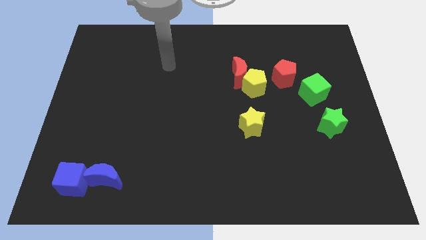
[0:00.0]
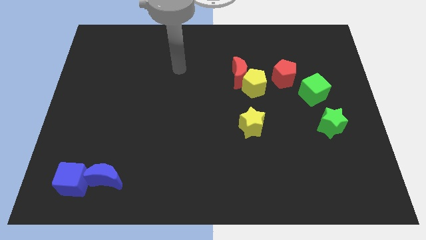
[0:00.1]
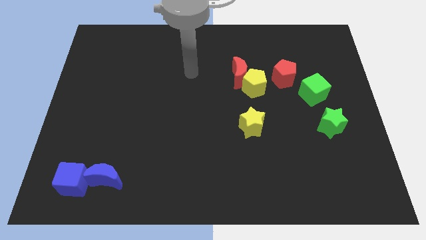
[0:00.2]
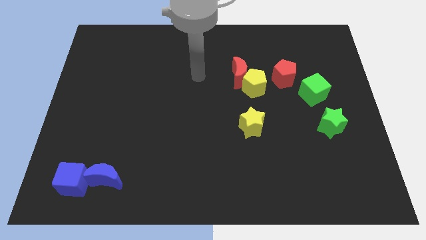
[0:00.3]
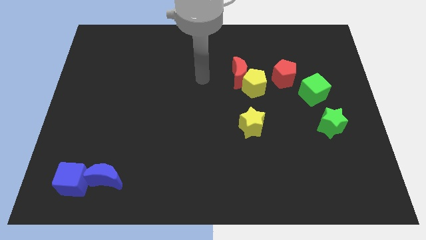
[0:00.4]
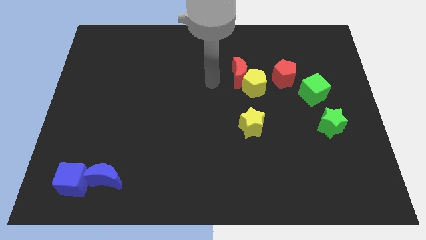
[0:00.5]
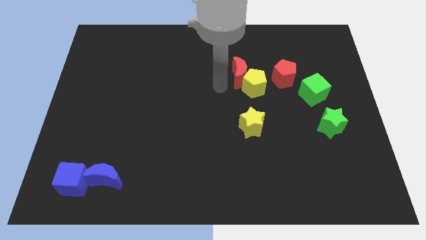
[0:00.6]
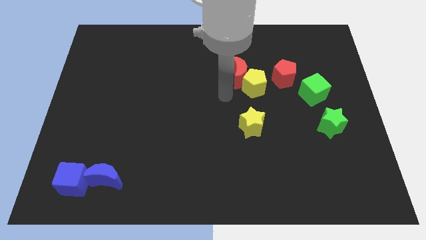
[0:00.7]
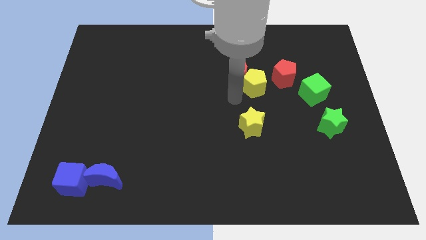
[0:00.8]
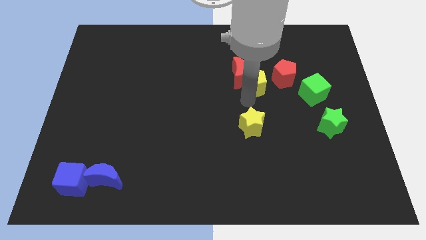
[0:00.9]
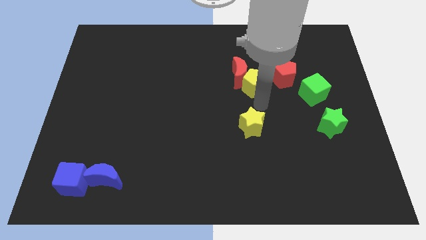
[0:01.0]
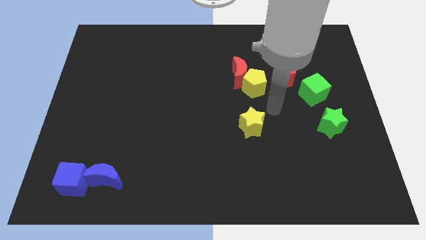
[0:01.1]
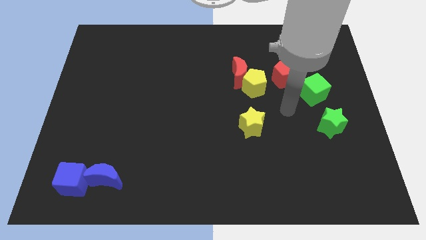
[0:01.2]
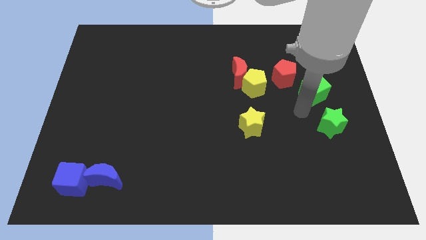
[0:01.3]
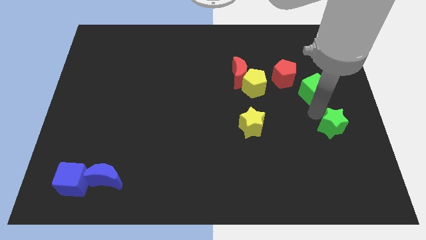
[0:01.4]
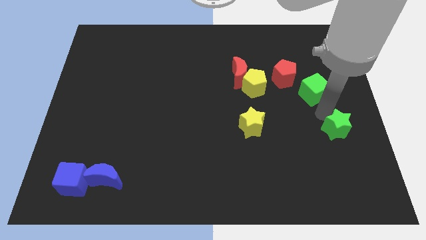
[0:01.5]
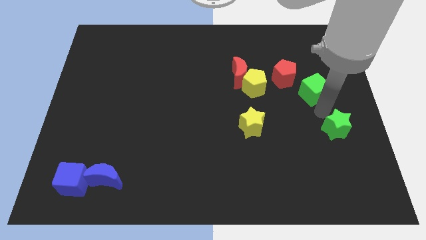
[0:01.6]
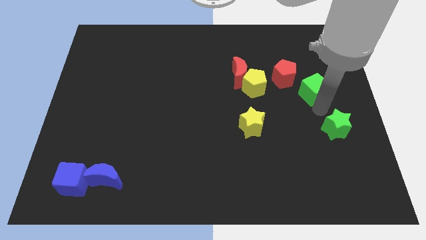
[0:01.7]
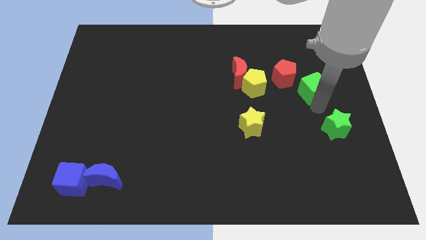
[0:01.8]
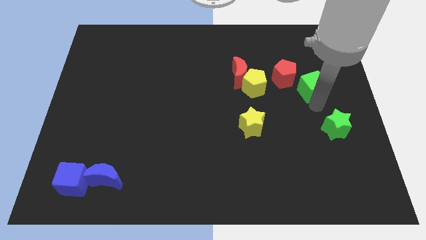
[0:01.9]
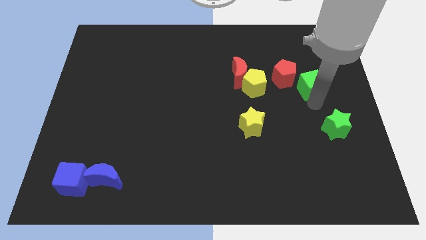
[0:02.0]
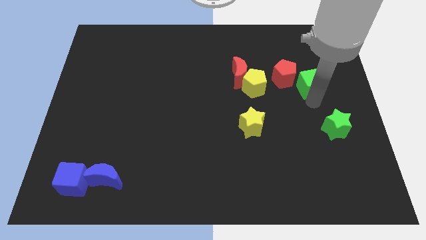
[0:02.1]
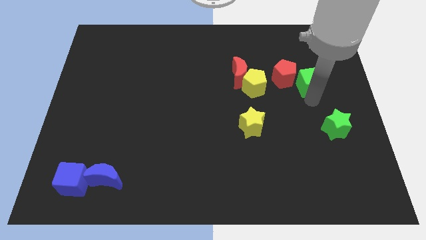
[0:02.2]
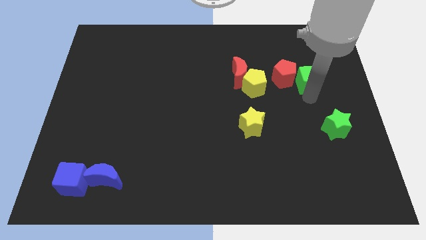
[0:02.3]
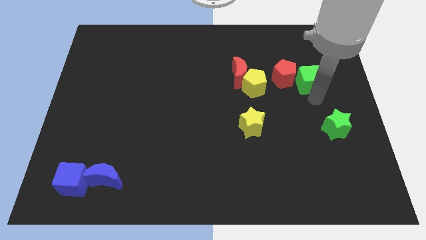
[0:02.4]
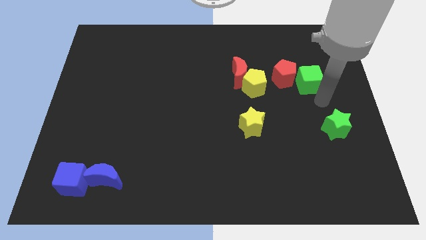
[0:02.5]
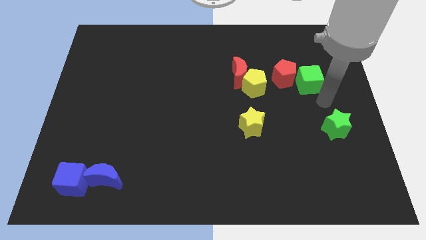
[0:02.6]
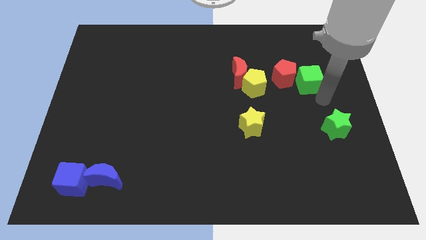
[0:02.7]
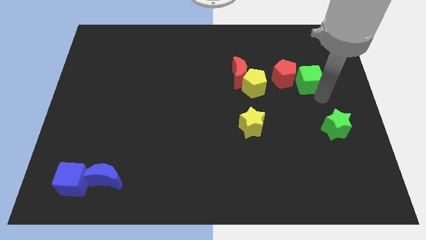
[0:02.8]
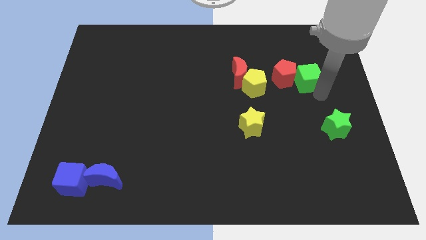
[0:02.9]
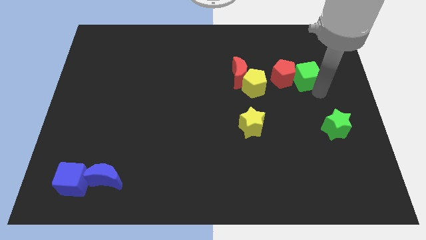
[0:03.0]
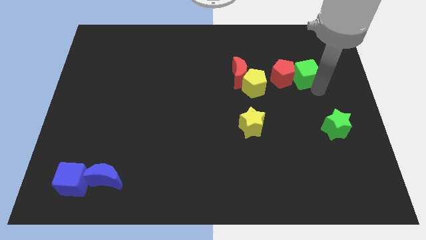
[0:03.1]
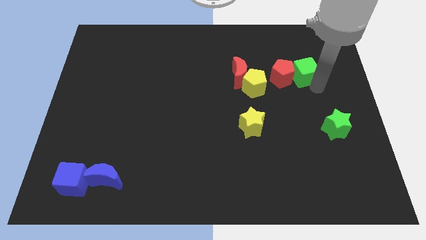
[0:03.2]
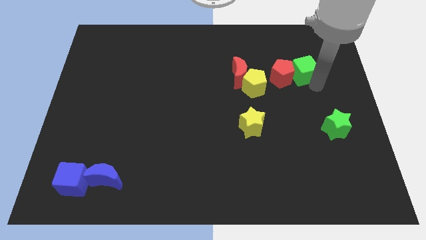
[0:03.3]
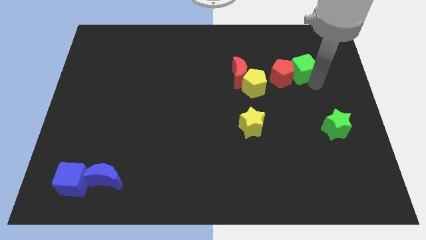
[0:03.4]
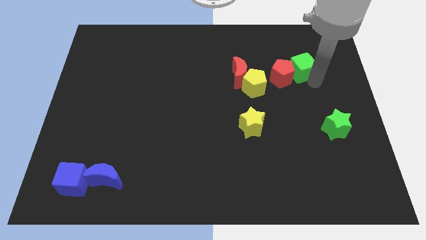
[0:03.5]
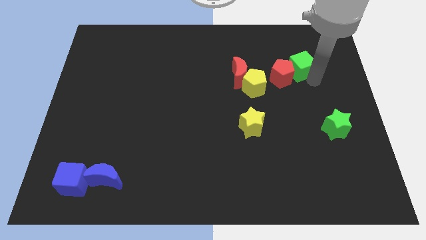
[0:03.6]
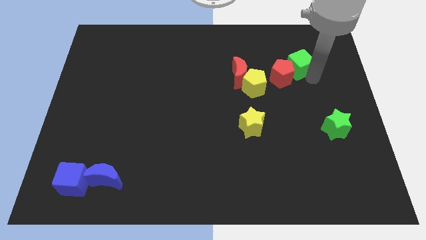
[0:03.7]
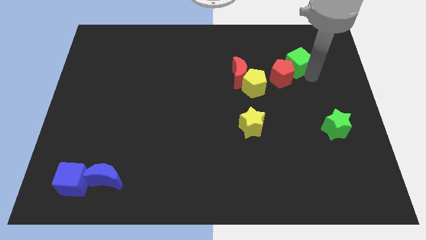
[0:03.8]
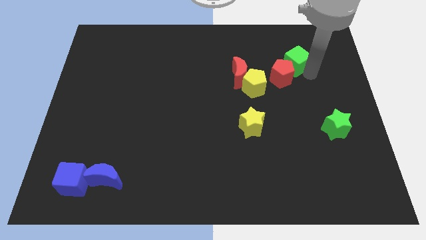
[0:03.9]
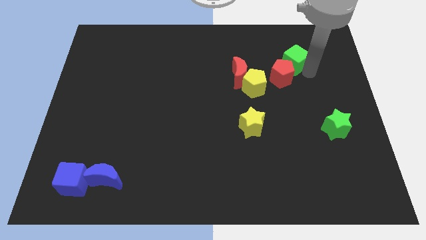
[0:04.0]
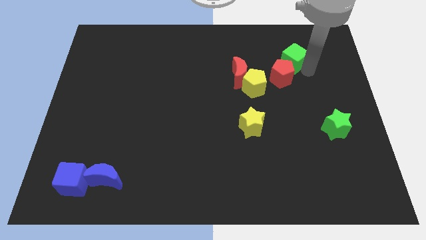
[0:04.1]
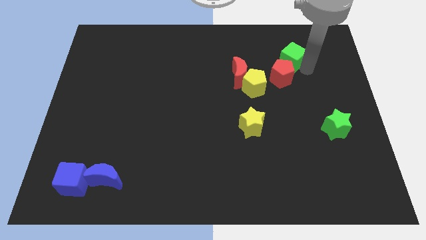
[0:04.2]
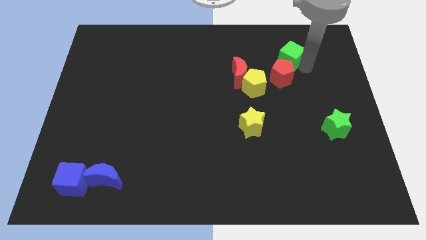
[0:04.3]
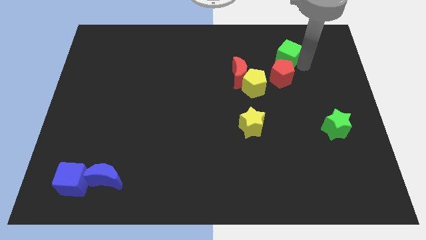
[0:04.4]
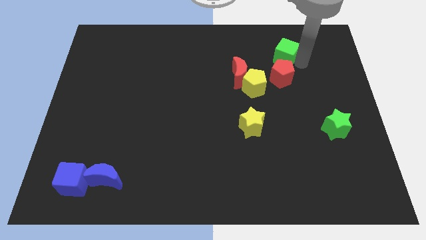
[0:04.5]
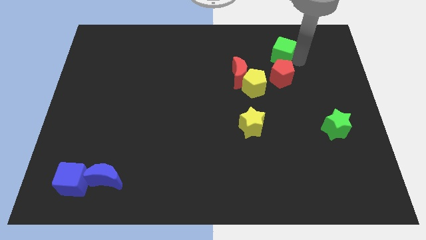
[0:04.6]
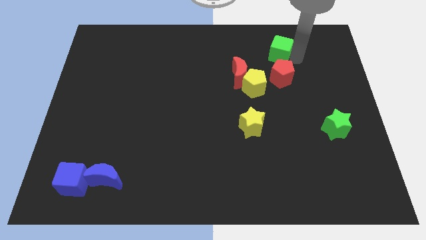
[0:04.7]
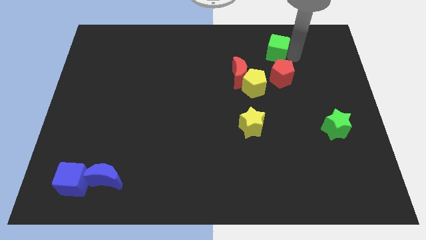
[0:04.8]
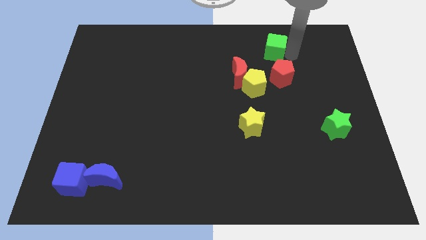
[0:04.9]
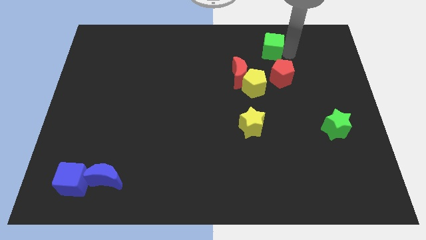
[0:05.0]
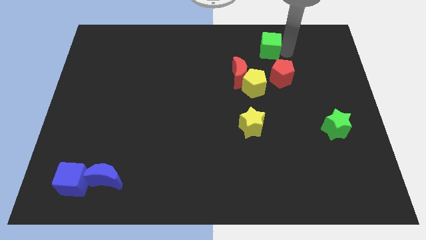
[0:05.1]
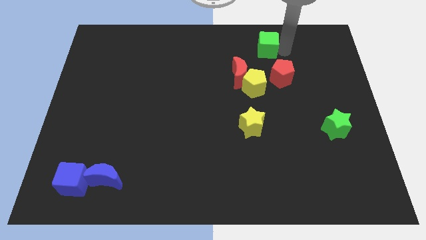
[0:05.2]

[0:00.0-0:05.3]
put the green cube above the yellow pentagon

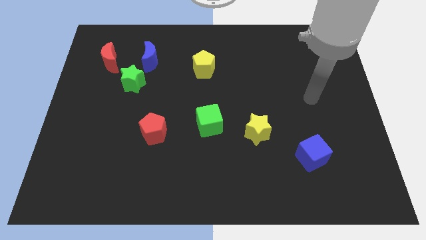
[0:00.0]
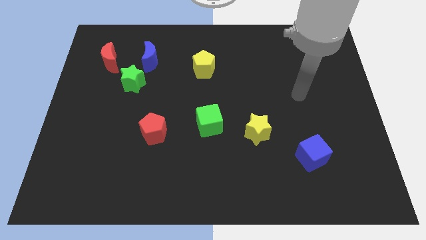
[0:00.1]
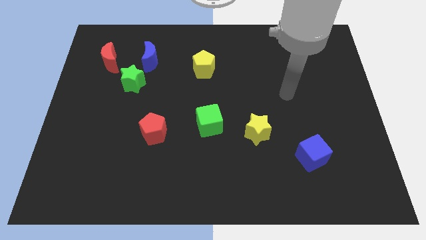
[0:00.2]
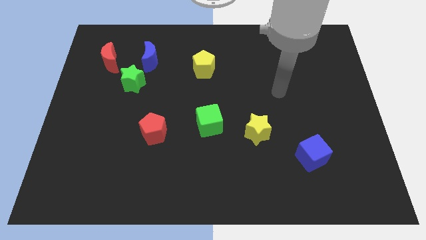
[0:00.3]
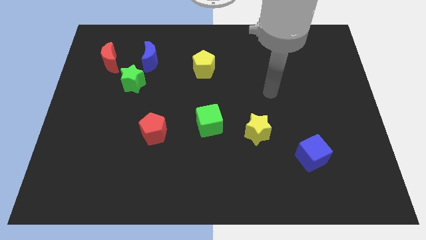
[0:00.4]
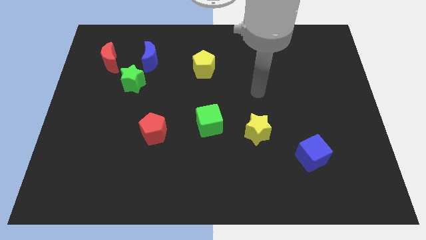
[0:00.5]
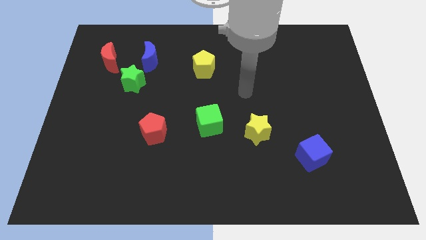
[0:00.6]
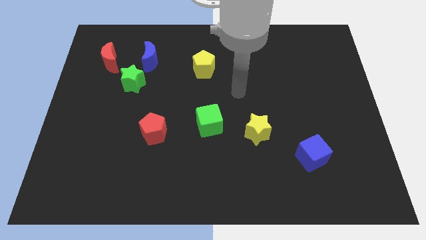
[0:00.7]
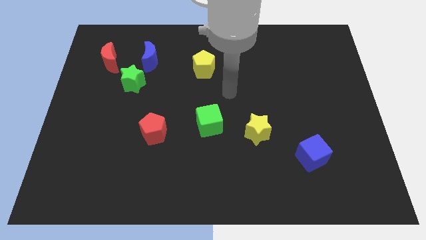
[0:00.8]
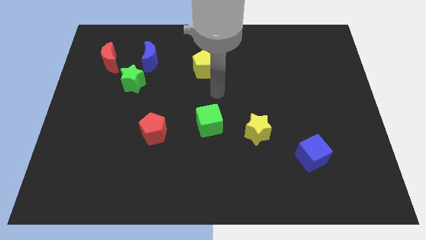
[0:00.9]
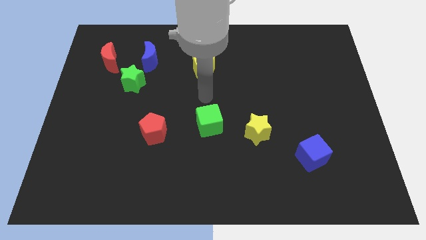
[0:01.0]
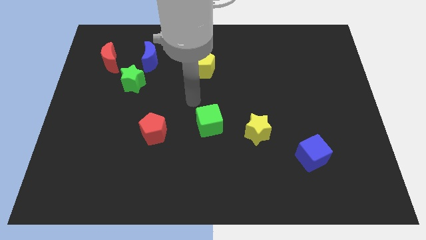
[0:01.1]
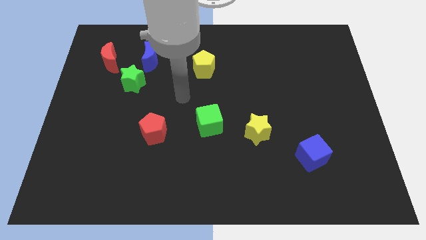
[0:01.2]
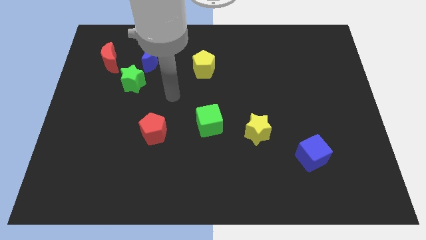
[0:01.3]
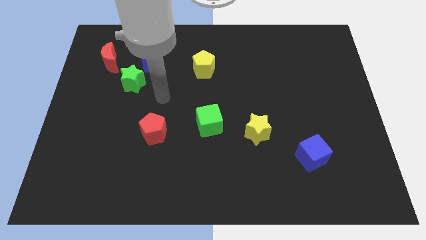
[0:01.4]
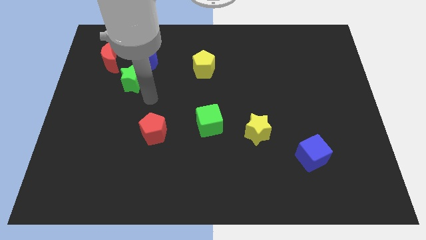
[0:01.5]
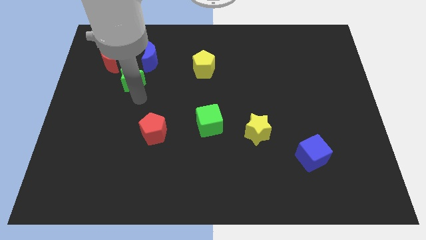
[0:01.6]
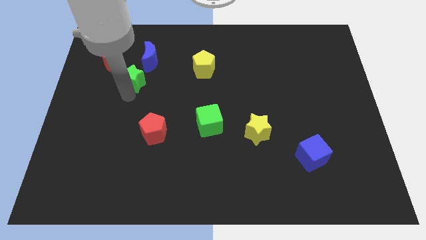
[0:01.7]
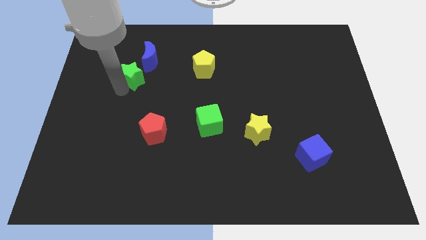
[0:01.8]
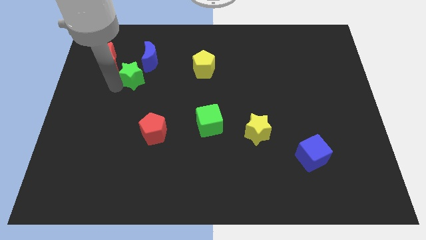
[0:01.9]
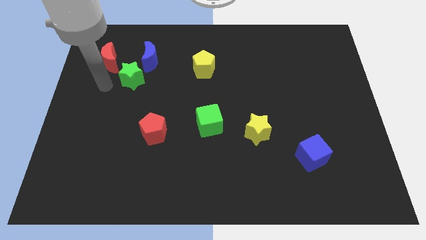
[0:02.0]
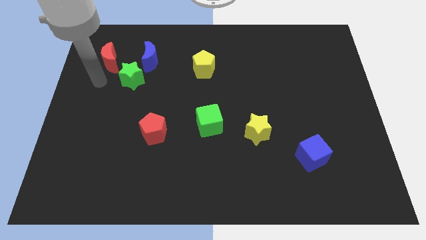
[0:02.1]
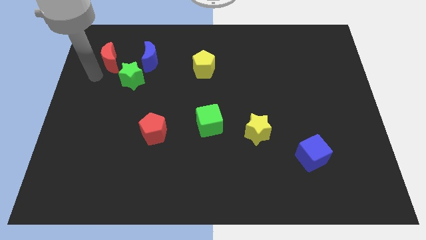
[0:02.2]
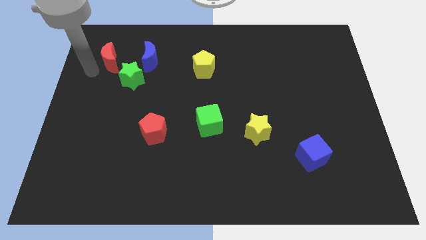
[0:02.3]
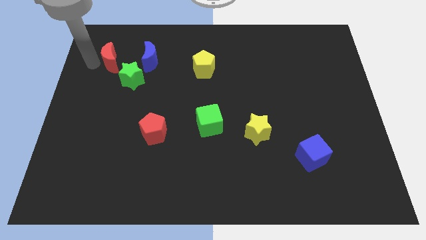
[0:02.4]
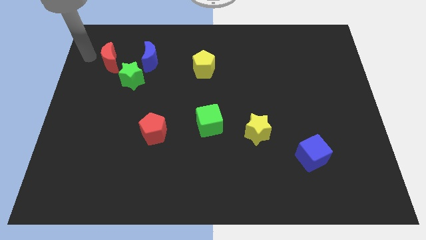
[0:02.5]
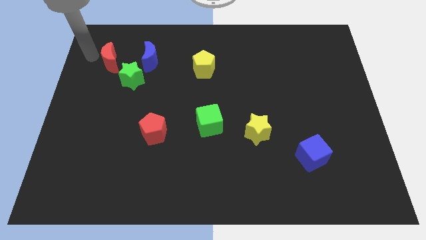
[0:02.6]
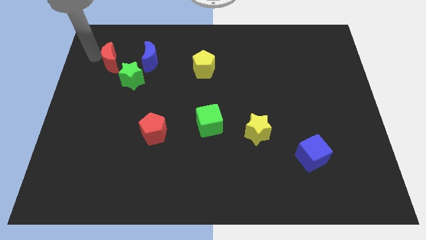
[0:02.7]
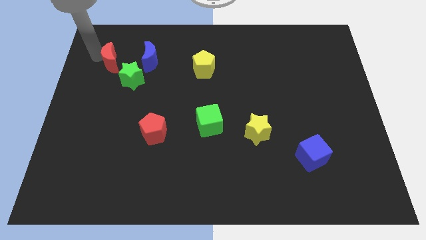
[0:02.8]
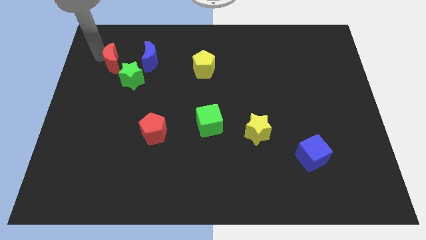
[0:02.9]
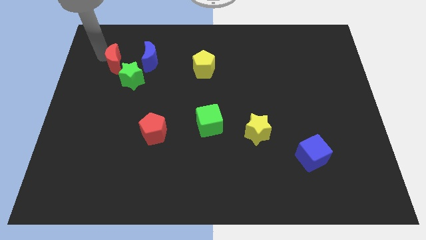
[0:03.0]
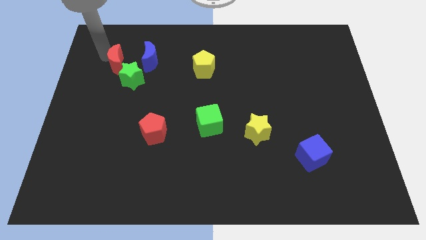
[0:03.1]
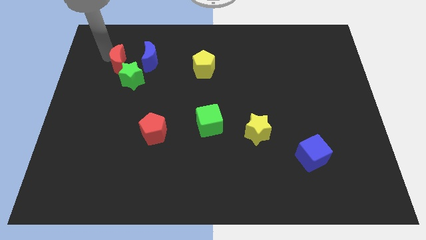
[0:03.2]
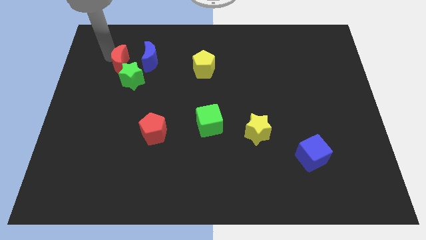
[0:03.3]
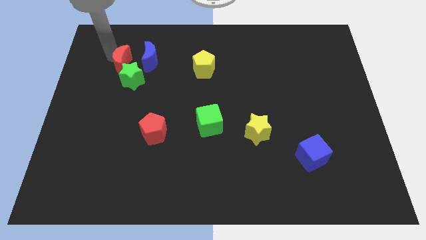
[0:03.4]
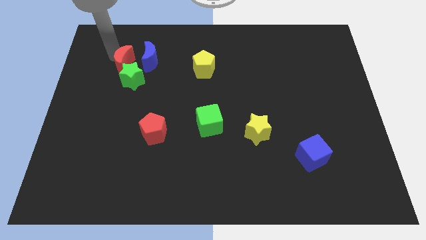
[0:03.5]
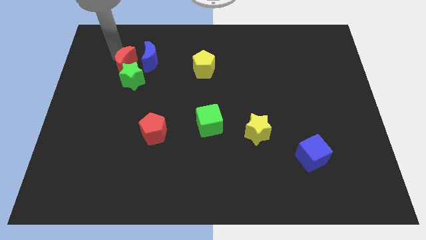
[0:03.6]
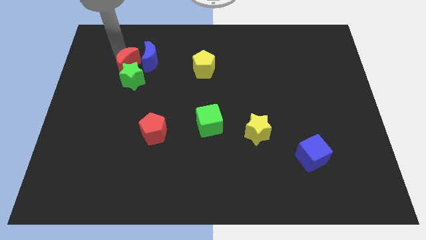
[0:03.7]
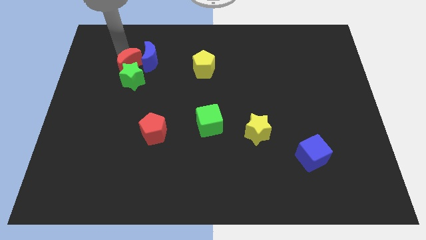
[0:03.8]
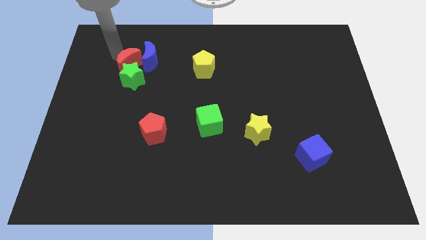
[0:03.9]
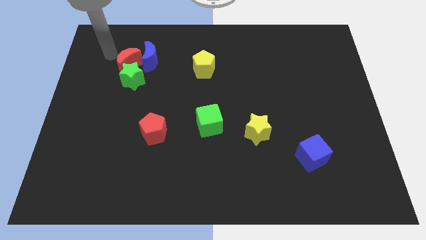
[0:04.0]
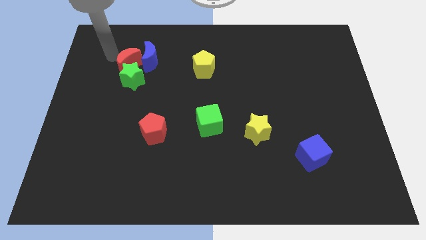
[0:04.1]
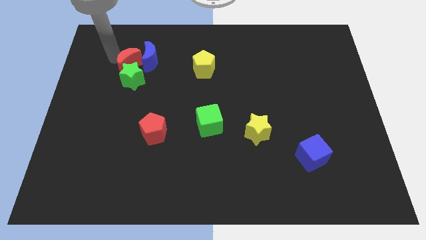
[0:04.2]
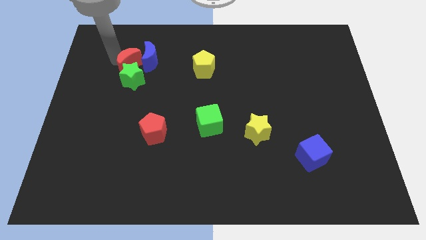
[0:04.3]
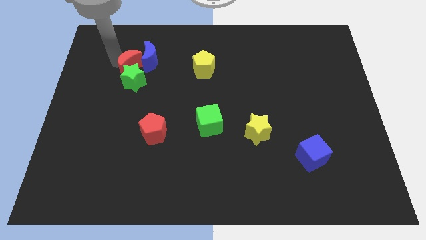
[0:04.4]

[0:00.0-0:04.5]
put the red moon diagonally up and to the right of the green star
